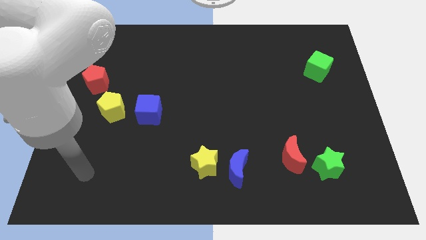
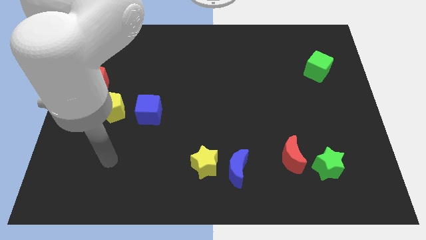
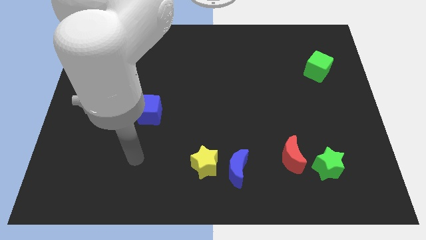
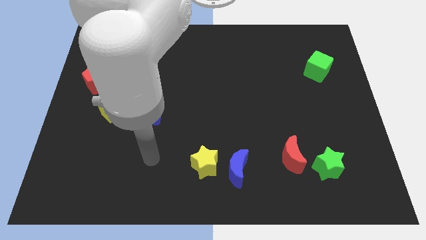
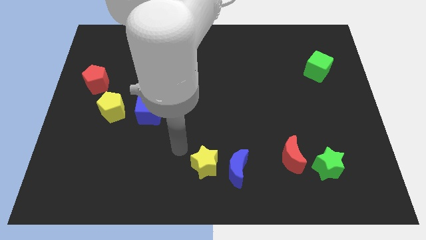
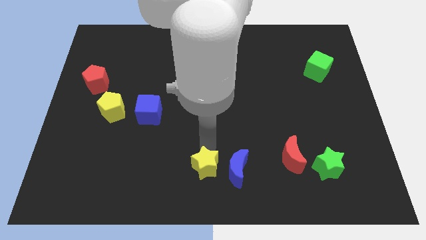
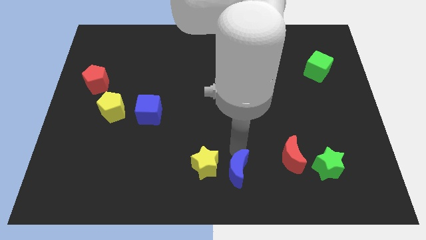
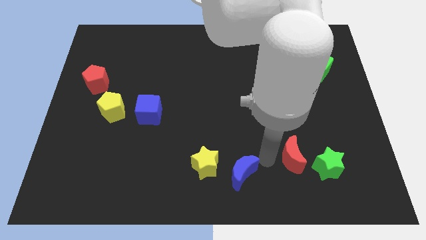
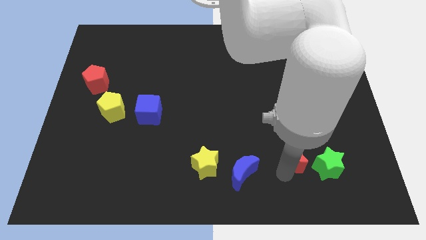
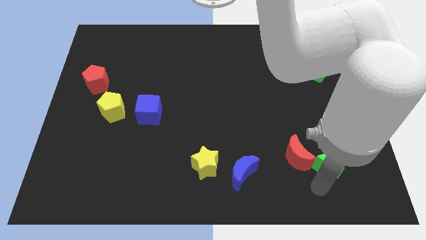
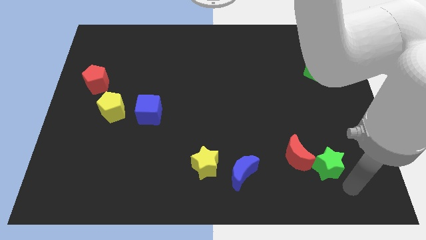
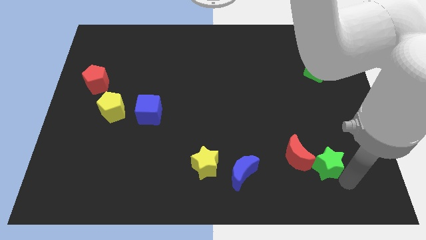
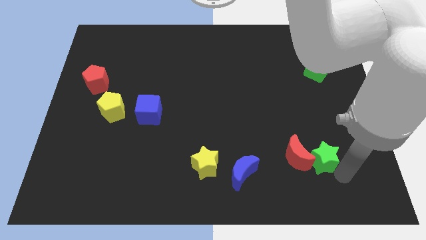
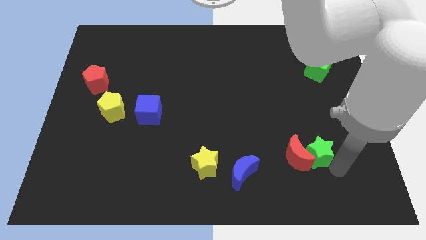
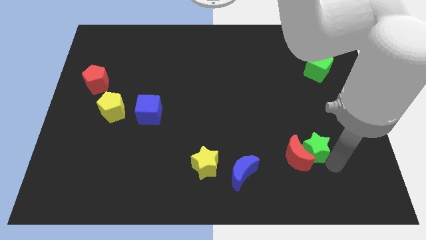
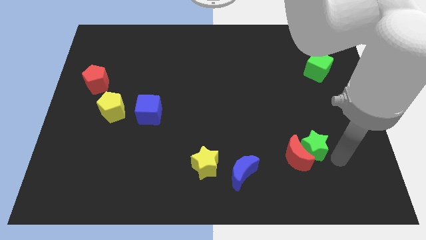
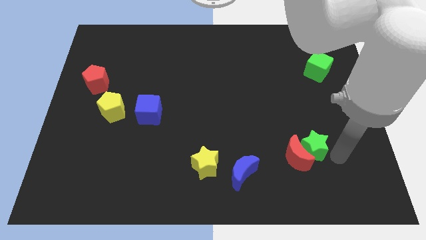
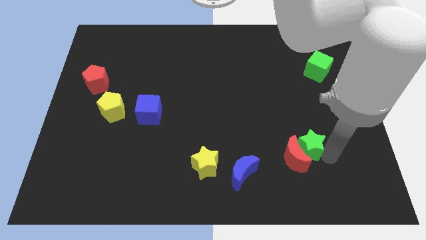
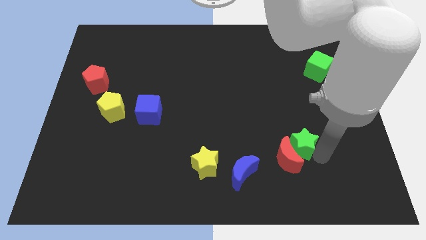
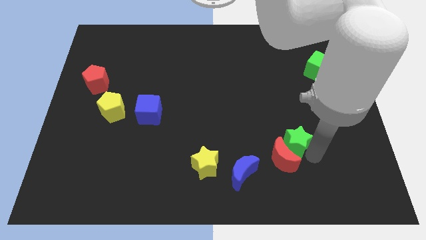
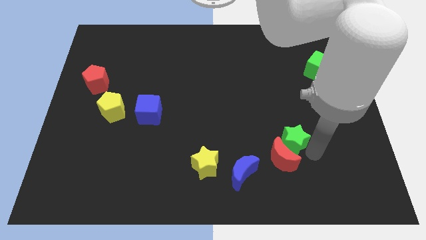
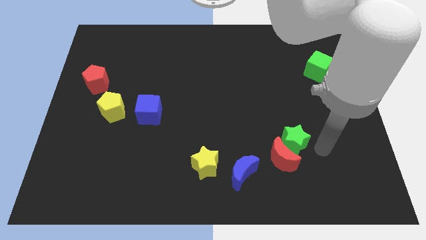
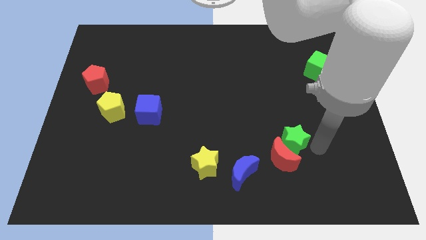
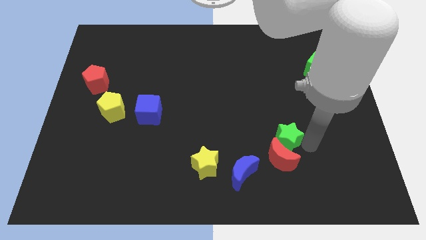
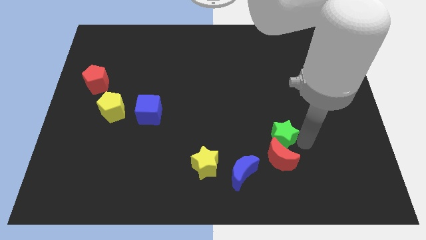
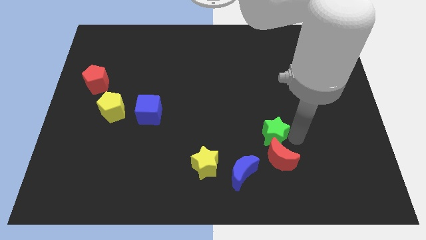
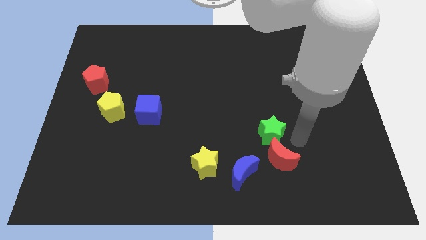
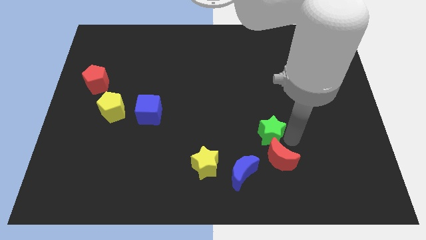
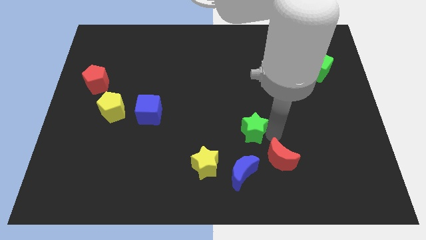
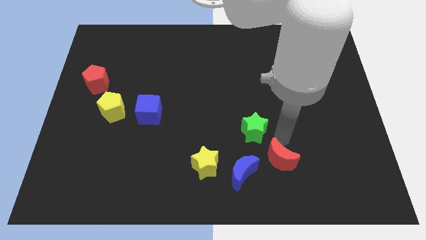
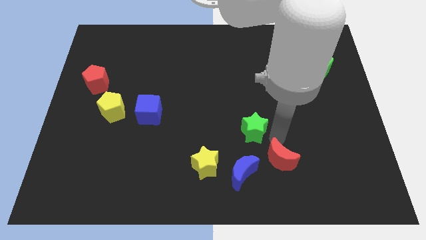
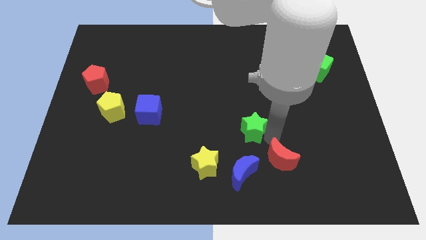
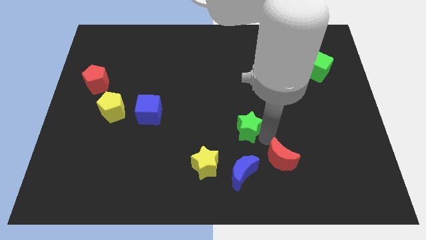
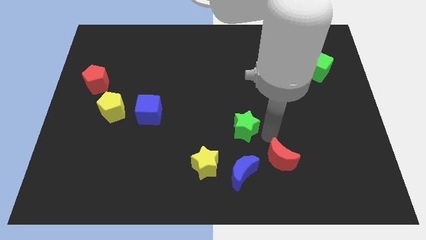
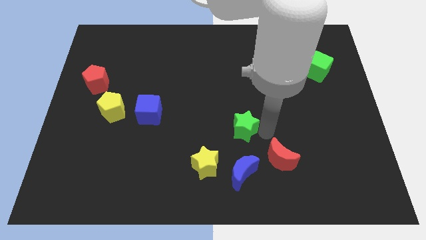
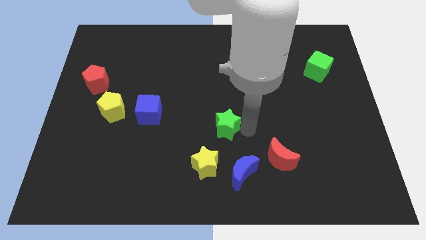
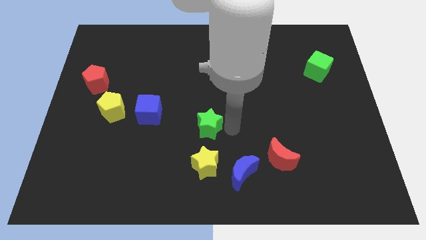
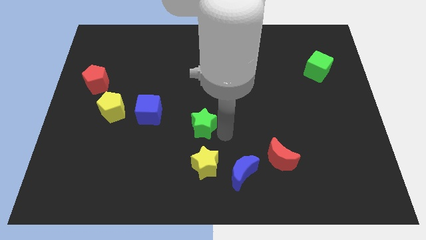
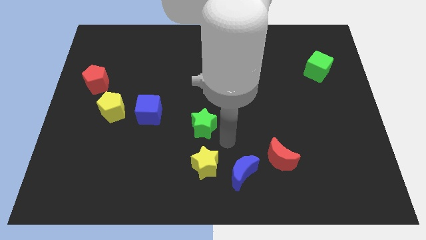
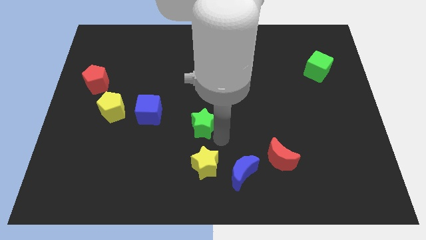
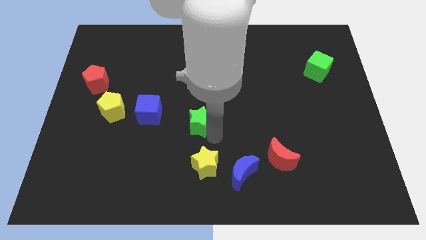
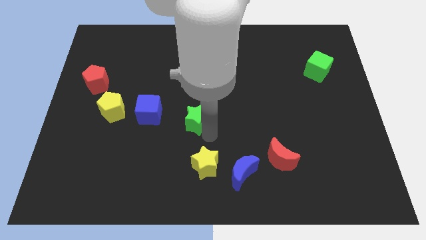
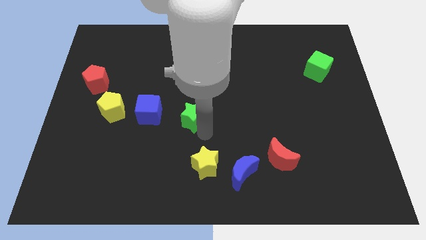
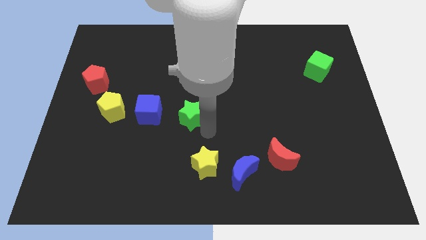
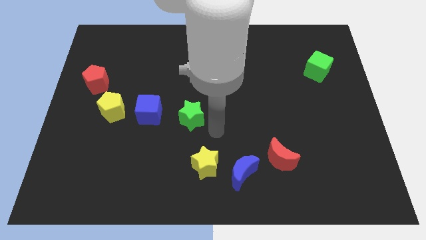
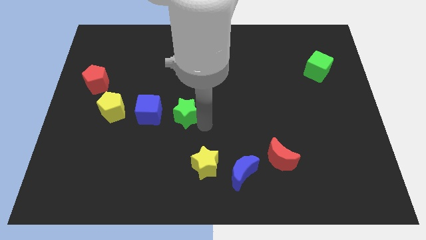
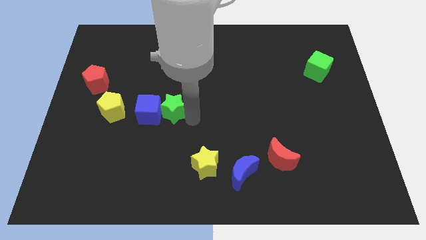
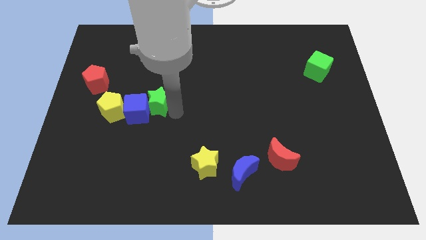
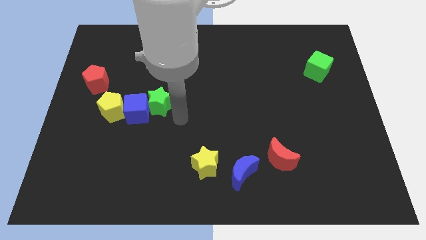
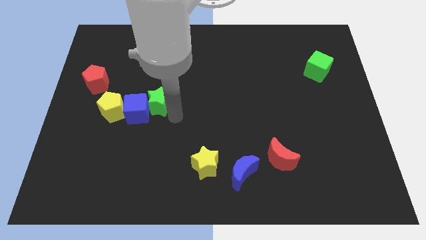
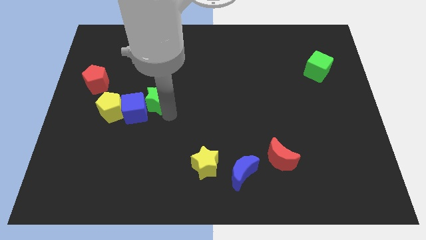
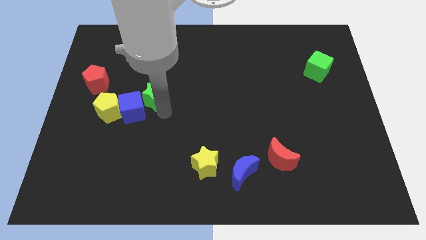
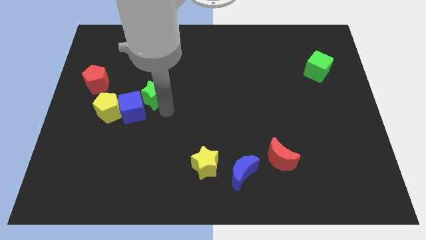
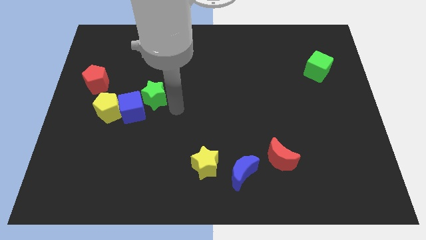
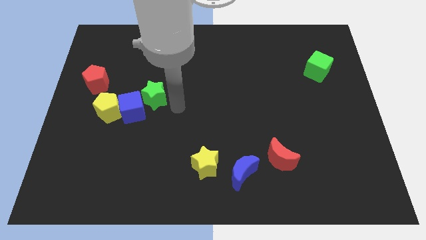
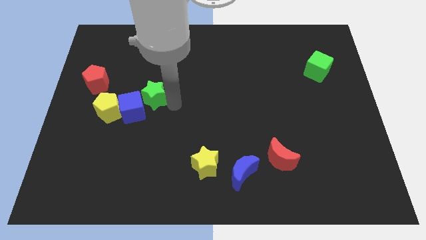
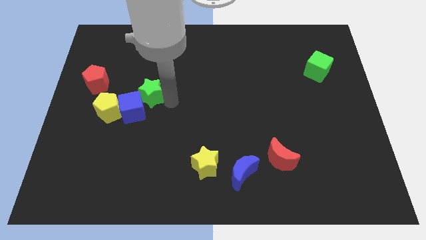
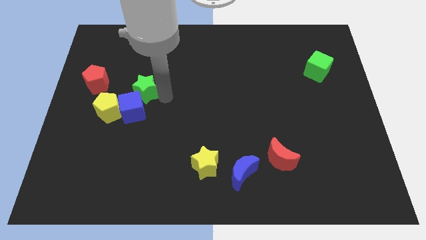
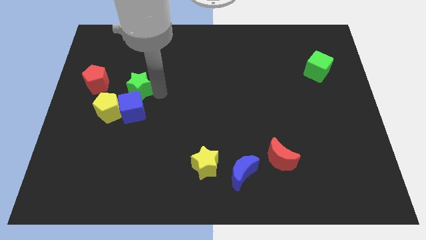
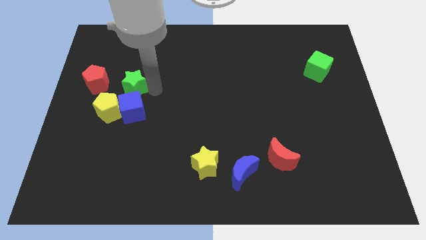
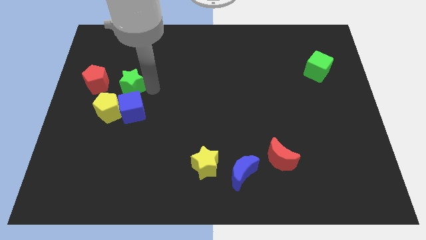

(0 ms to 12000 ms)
slide the green star to the top of the yellow pentagon

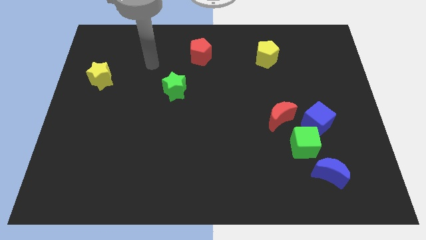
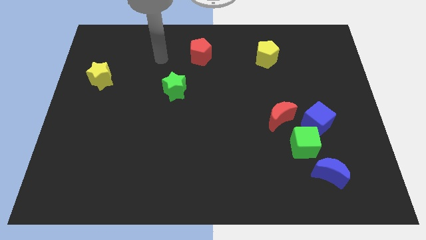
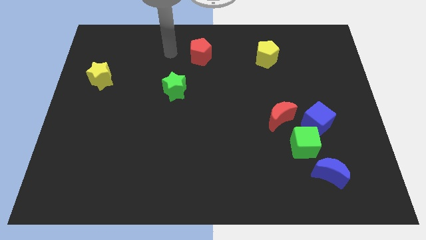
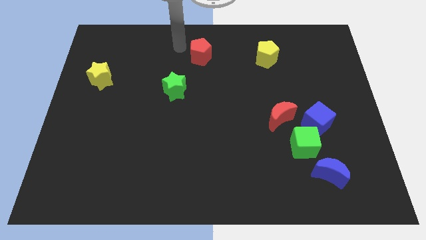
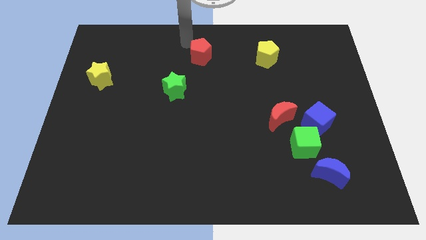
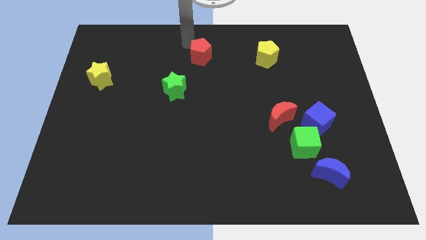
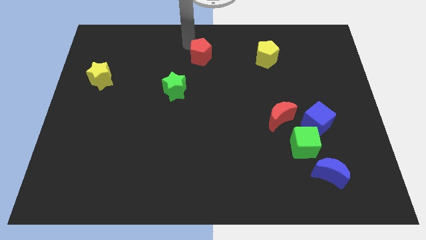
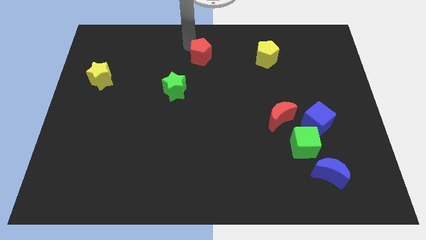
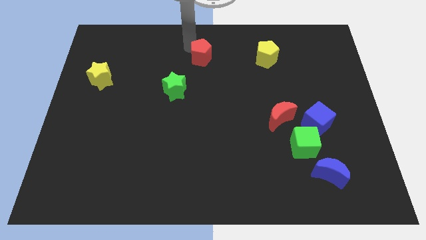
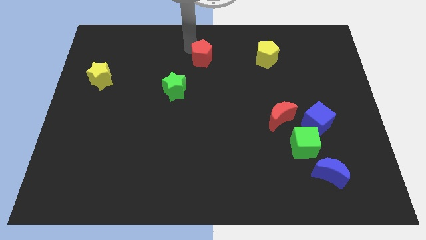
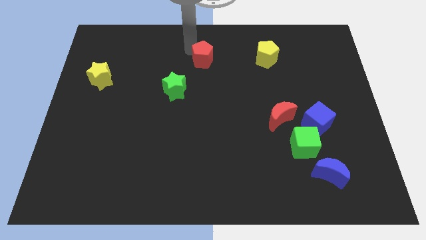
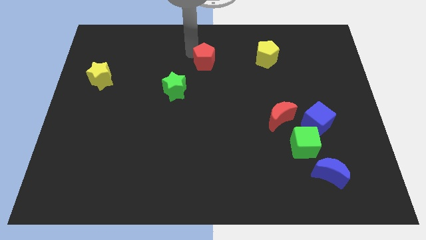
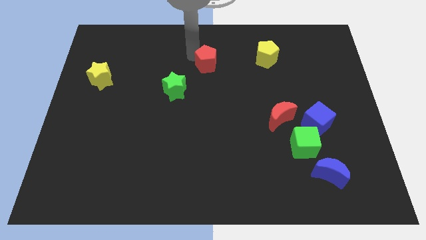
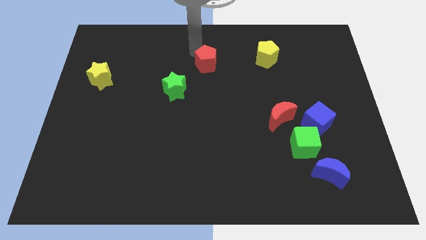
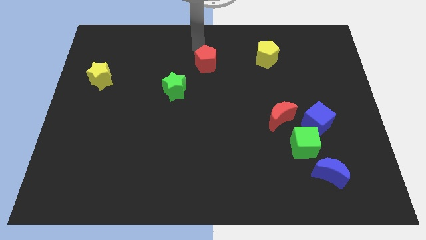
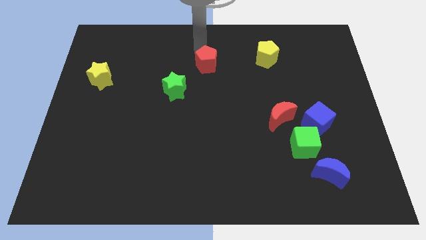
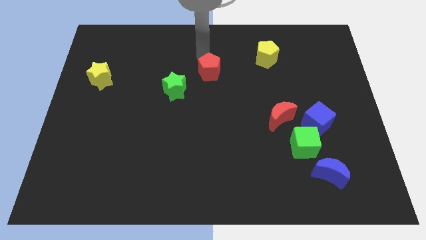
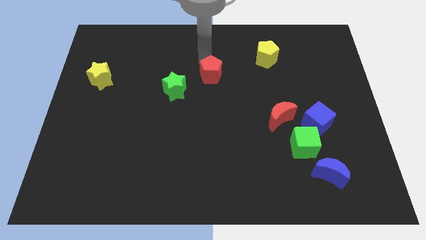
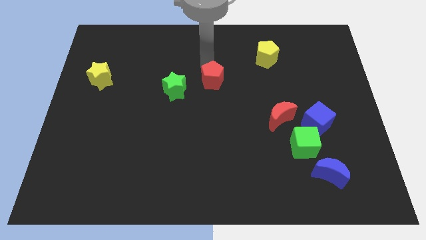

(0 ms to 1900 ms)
push the red pentagon just right of the green star
